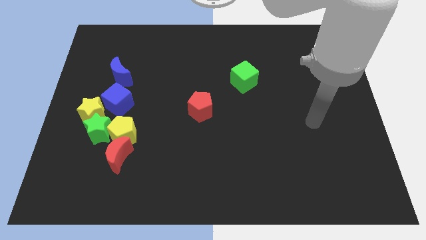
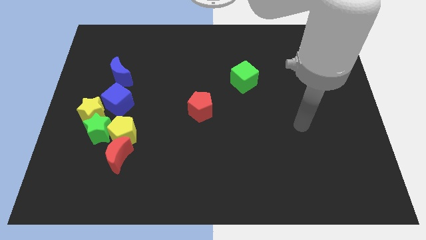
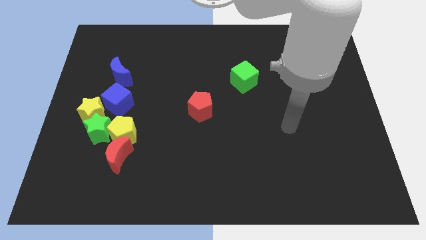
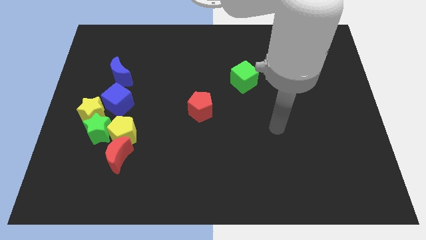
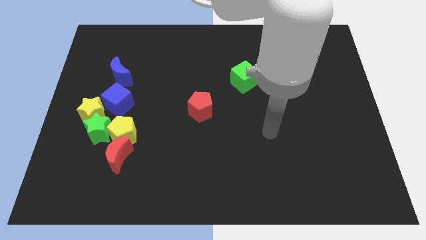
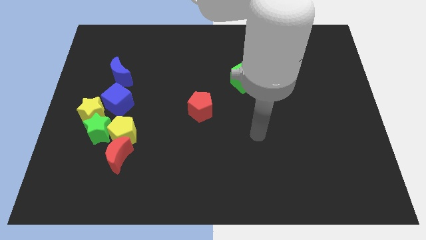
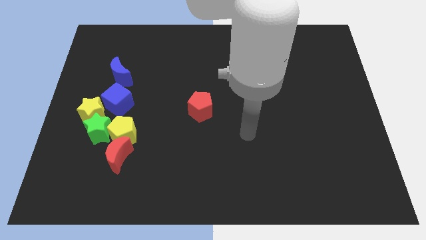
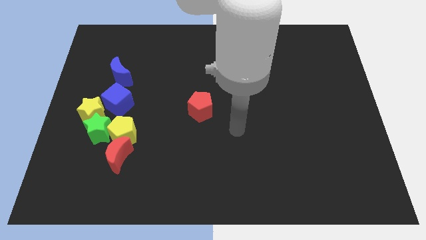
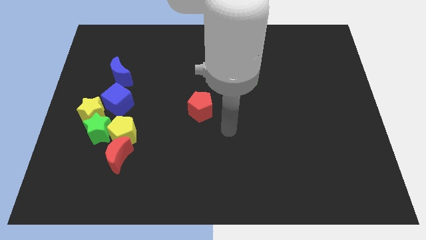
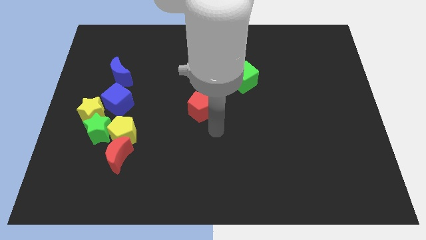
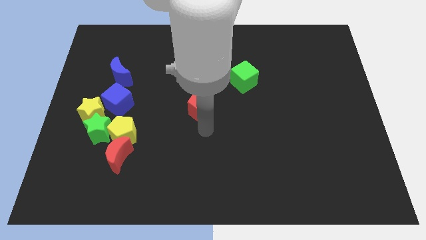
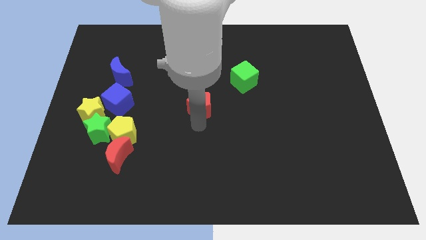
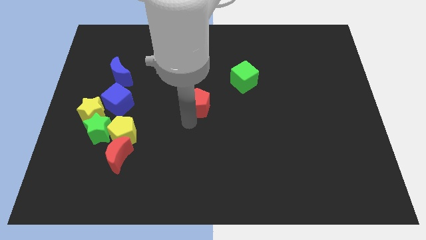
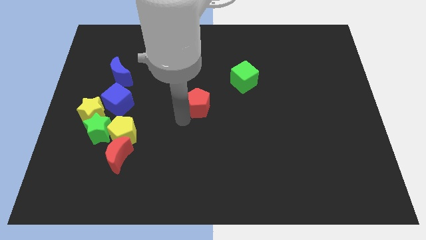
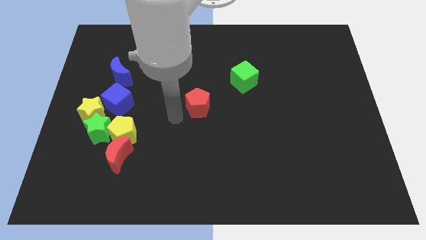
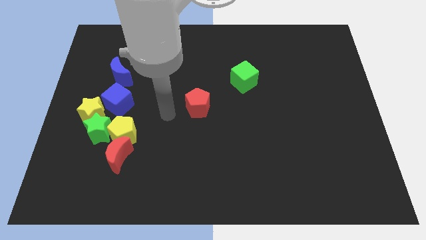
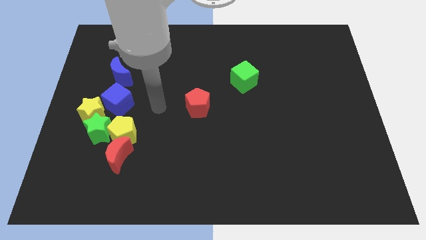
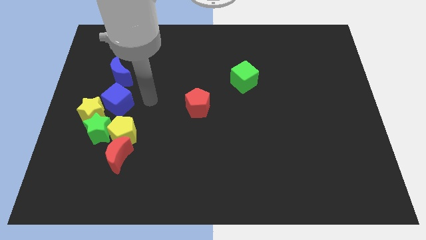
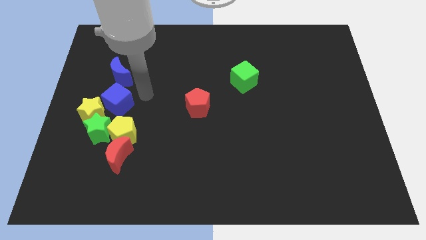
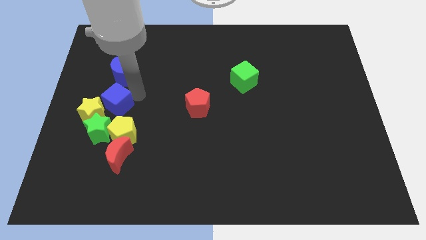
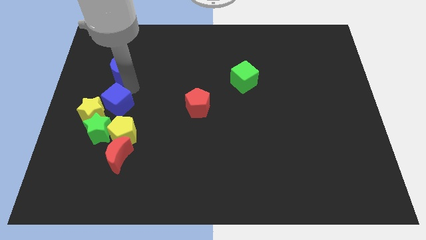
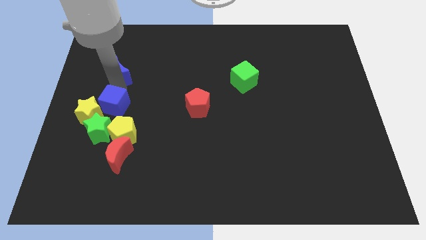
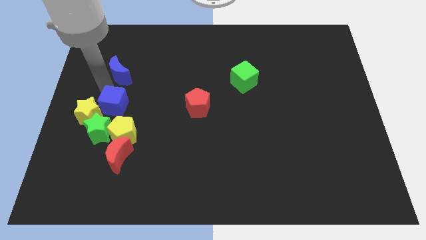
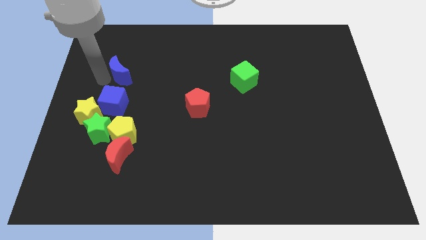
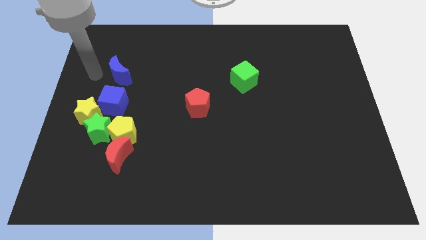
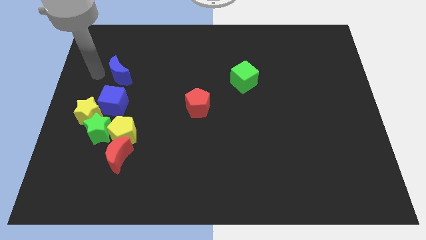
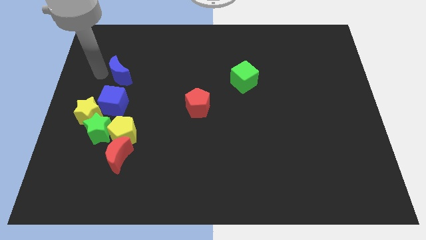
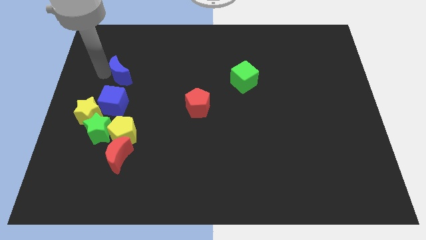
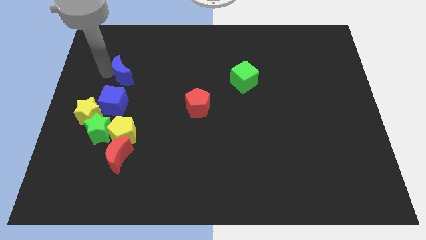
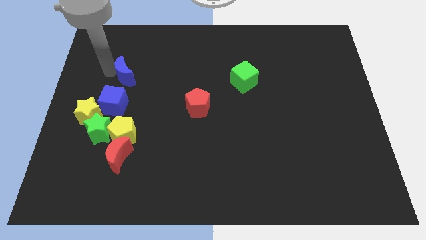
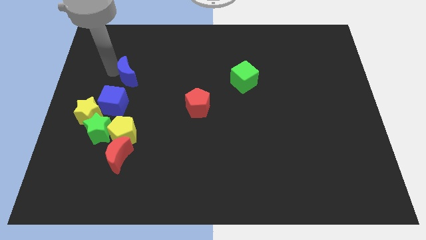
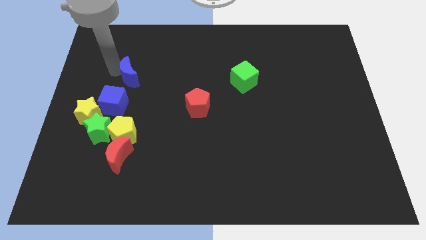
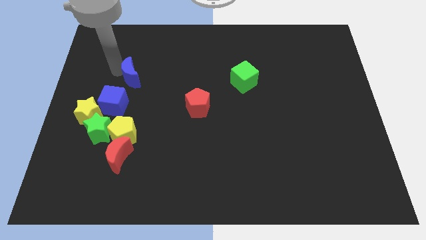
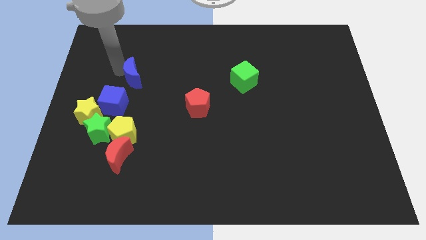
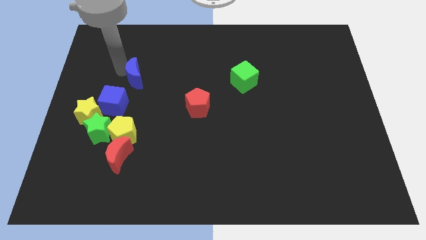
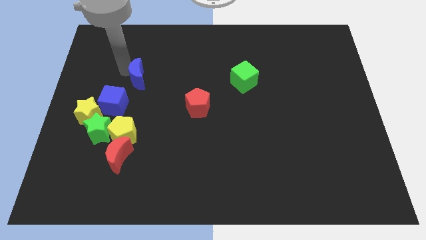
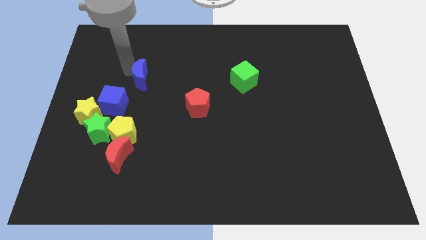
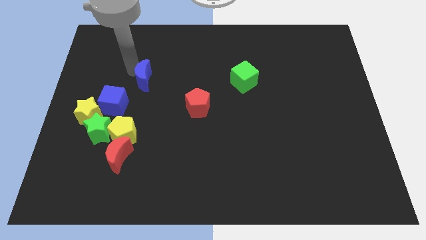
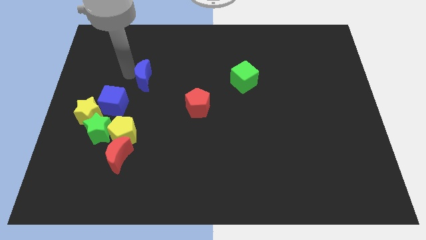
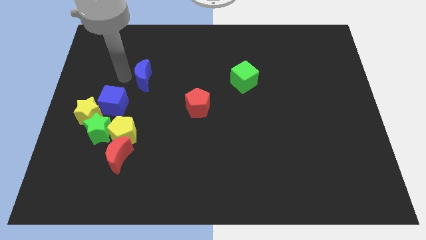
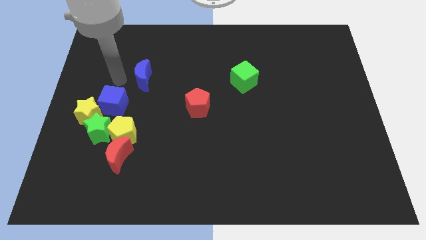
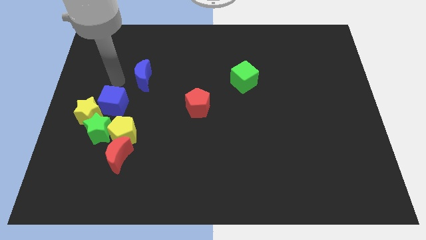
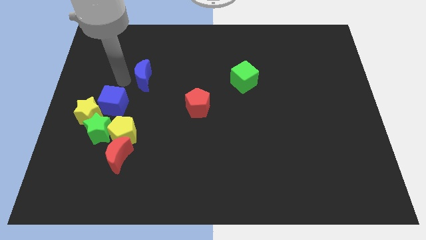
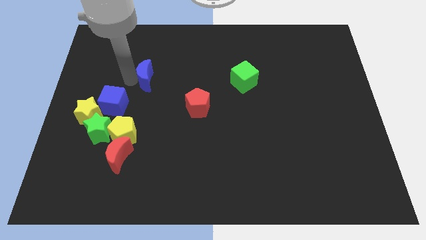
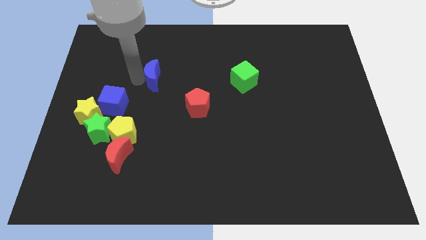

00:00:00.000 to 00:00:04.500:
slightly slide the blue moon to the right

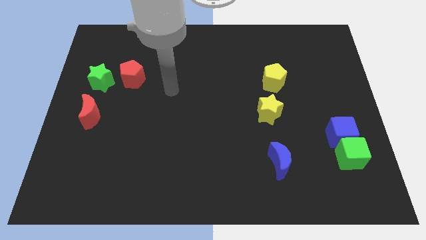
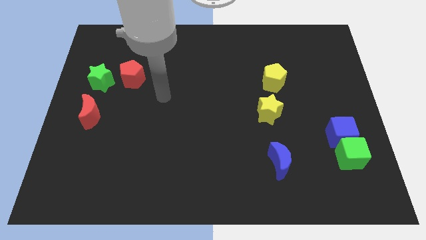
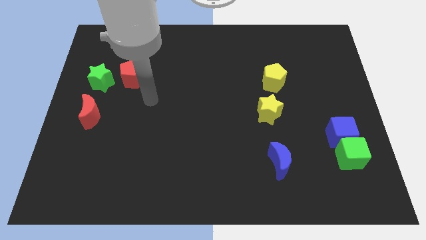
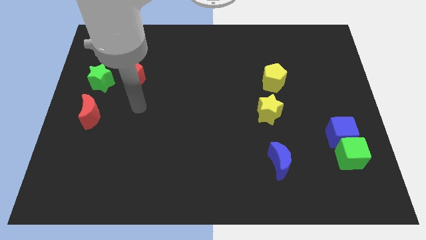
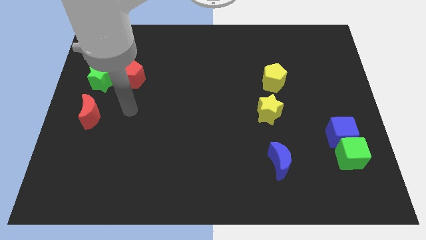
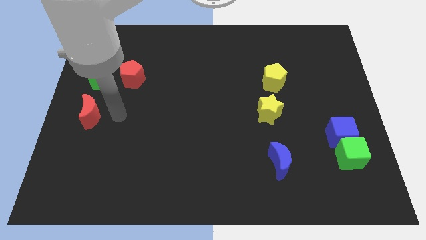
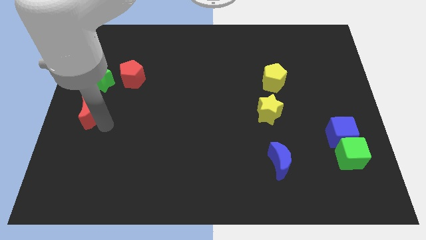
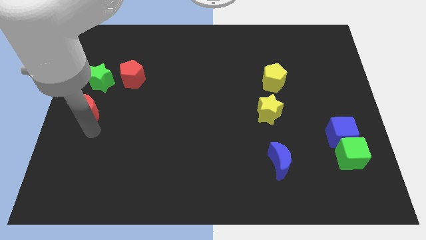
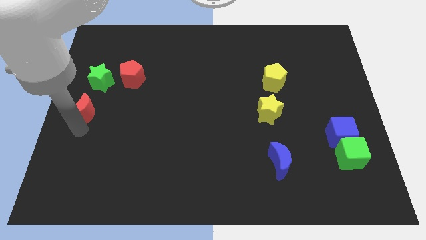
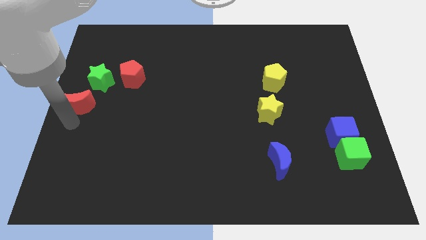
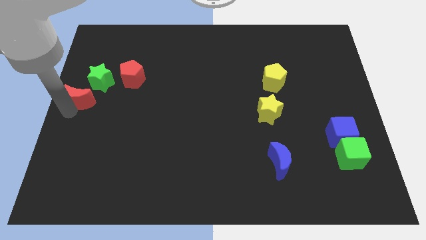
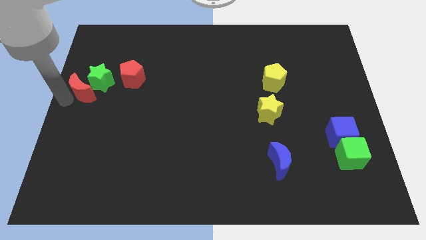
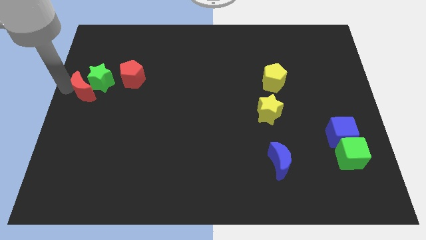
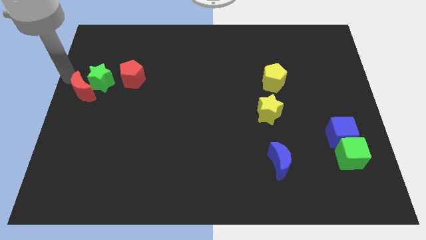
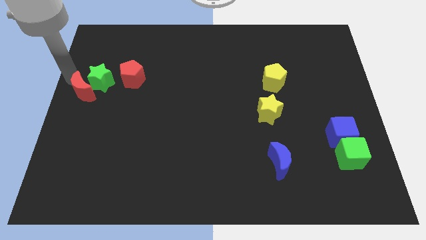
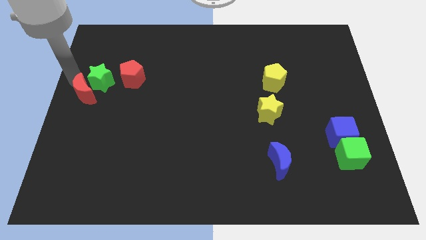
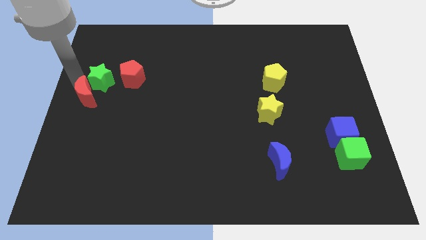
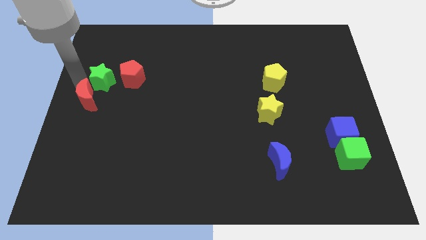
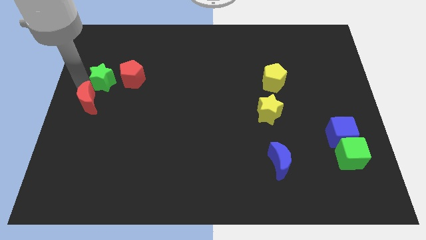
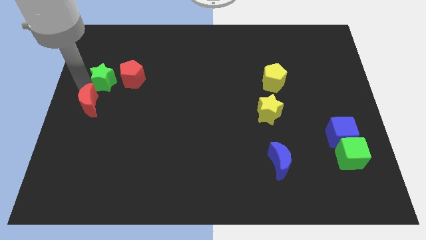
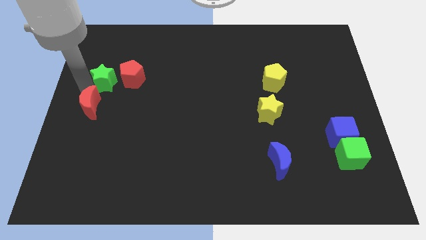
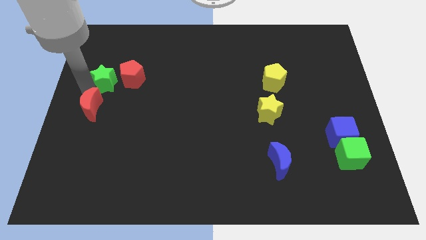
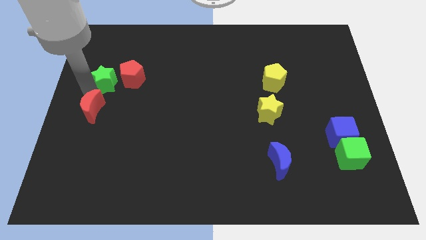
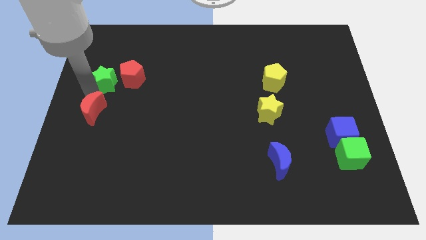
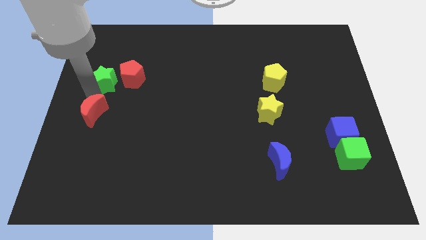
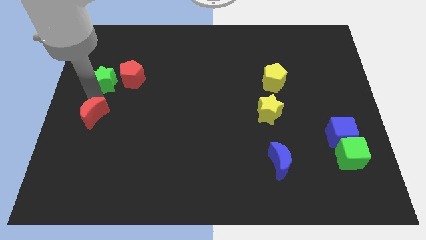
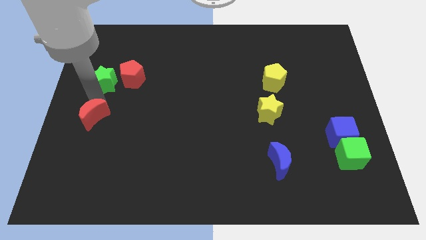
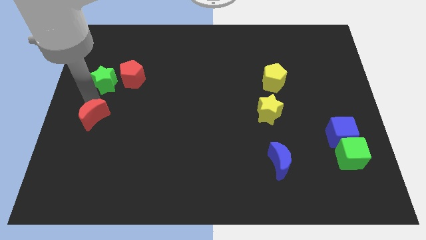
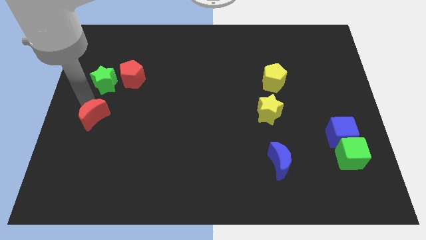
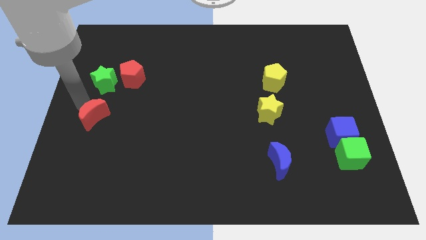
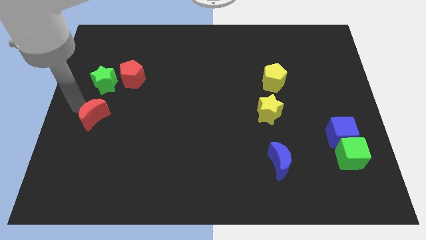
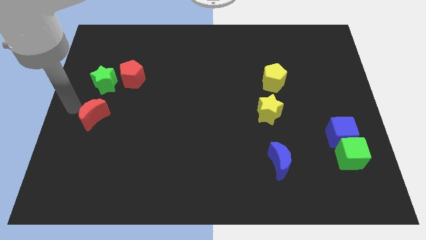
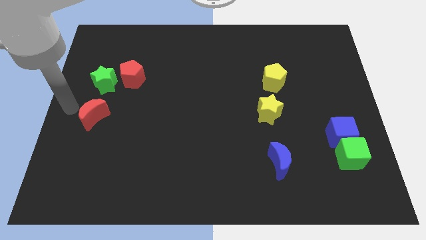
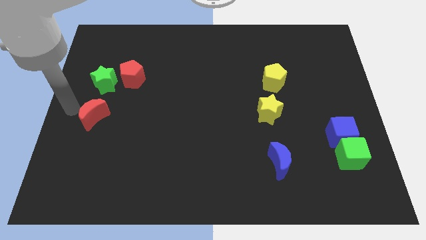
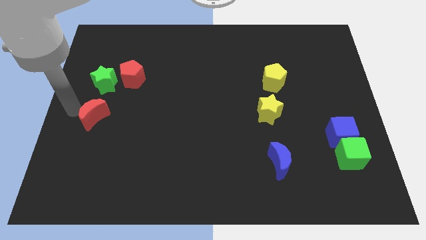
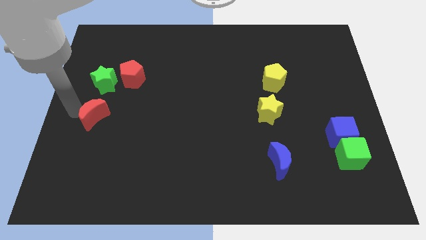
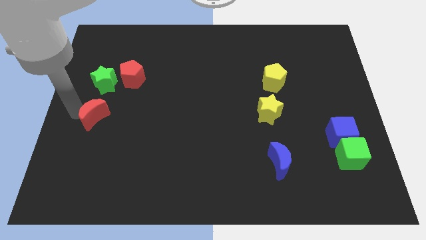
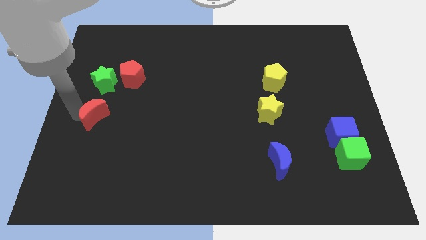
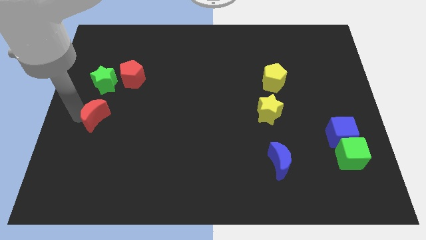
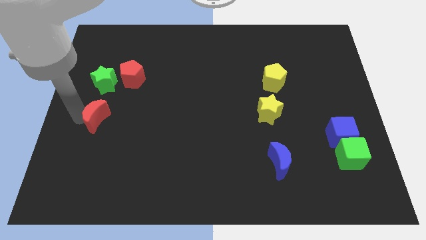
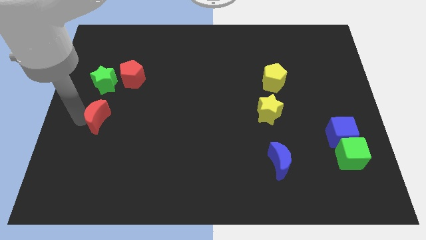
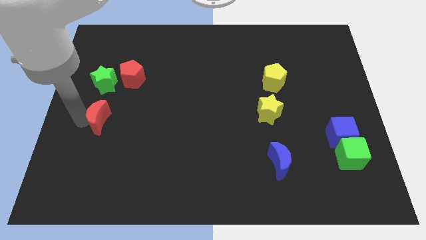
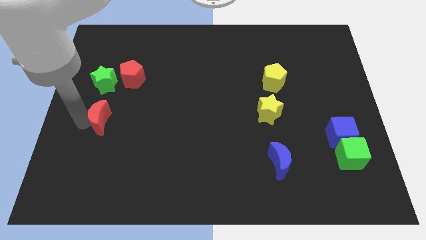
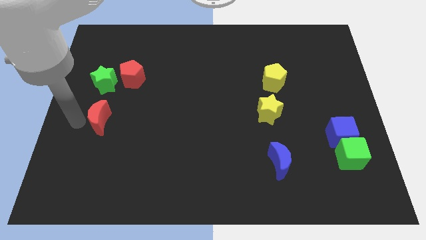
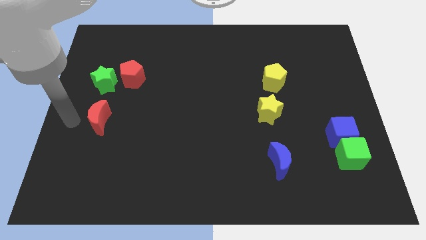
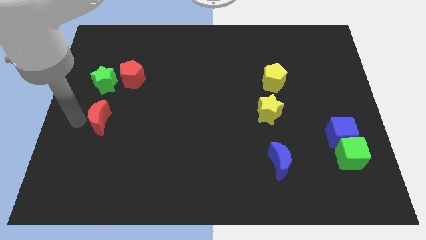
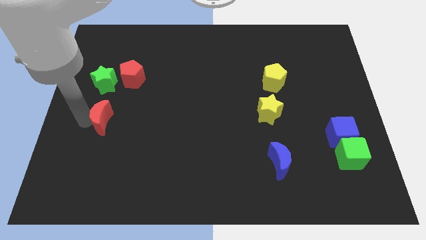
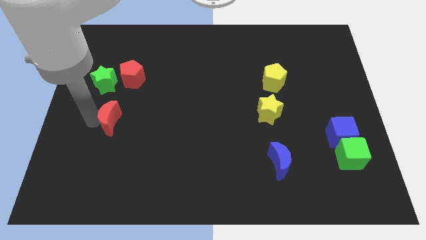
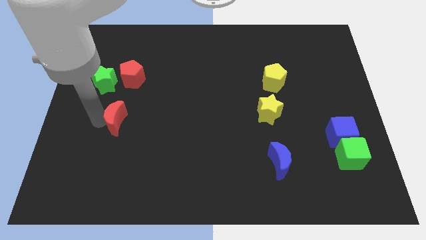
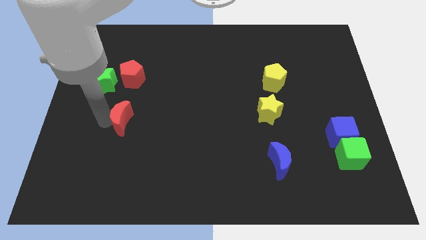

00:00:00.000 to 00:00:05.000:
slightly push the red moon right
